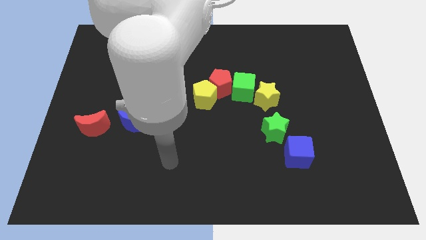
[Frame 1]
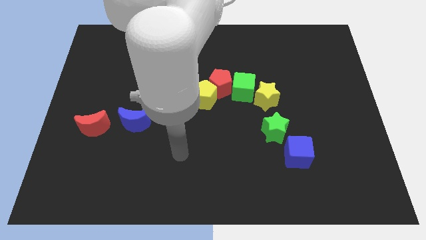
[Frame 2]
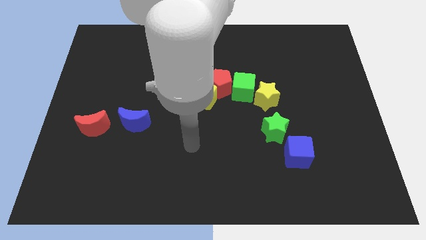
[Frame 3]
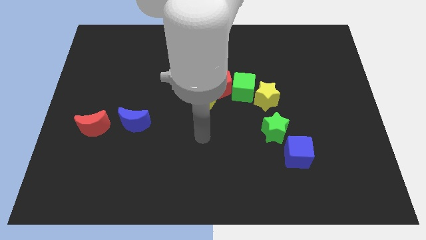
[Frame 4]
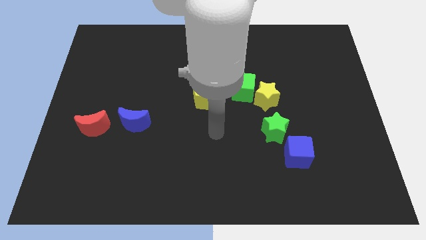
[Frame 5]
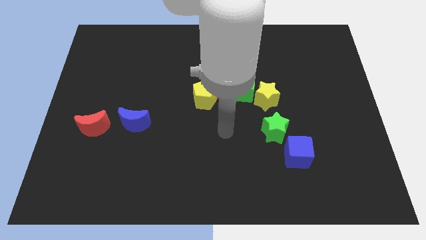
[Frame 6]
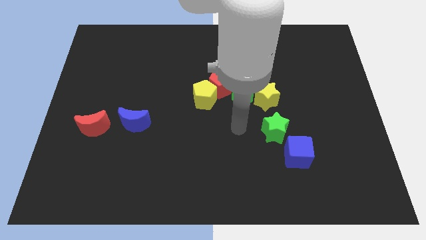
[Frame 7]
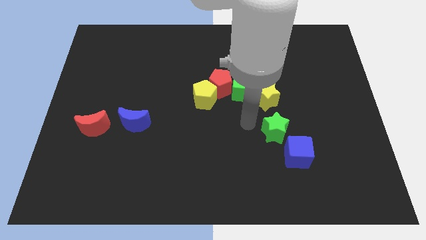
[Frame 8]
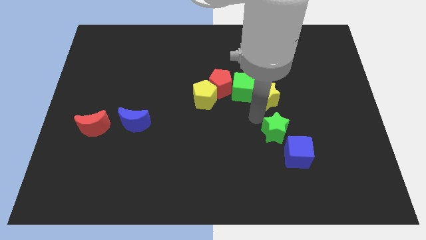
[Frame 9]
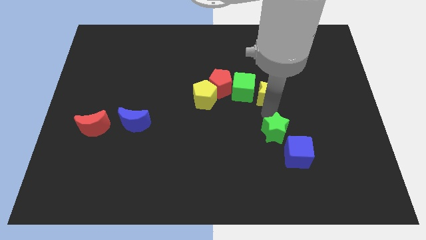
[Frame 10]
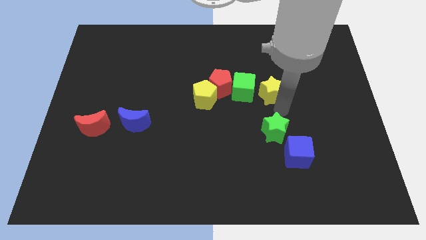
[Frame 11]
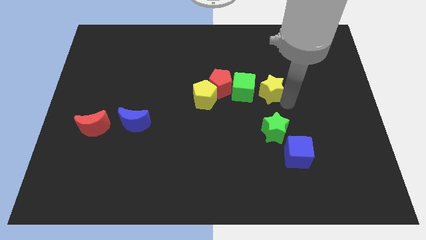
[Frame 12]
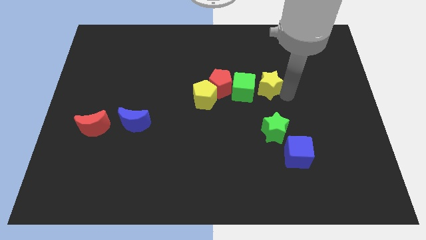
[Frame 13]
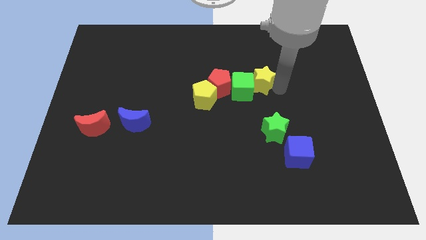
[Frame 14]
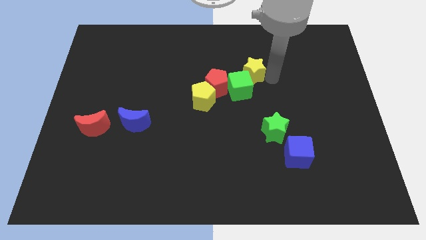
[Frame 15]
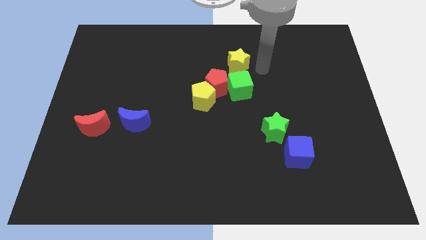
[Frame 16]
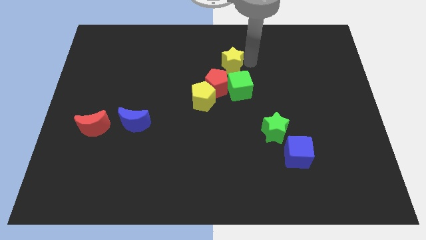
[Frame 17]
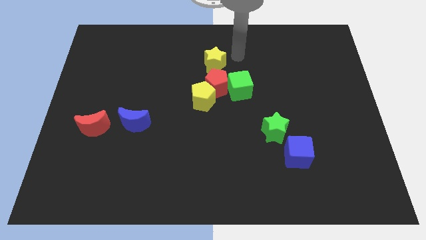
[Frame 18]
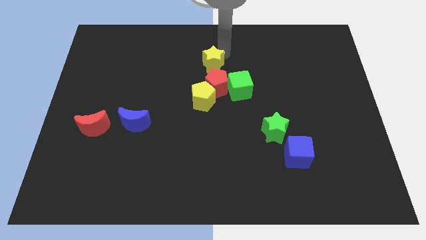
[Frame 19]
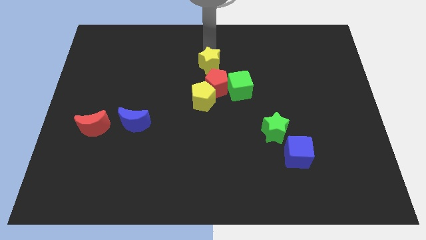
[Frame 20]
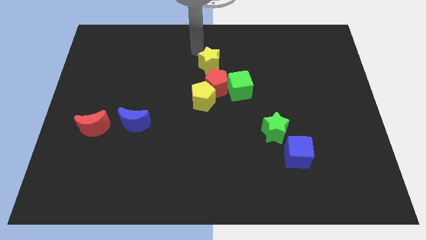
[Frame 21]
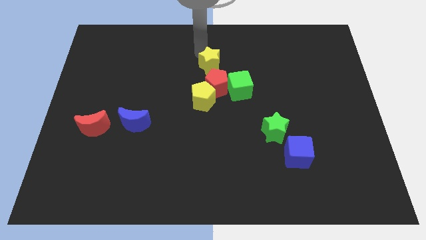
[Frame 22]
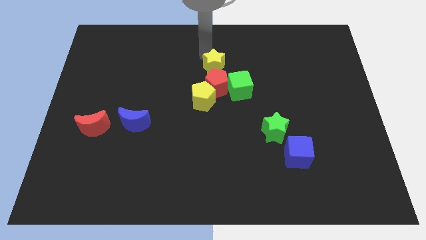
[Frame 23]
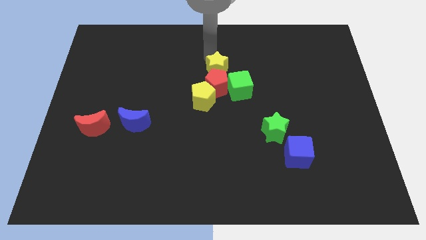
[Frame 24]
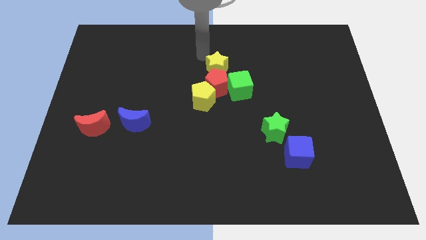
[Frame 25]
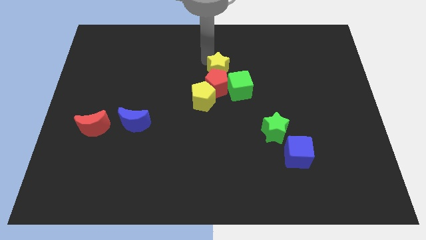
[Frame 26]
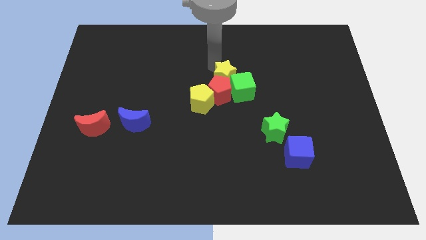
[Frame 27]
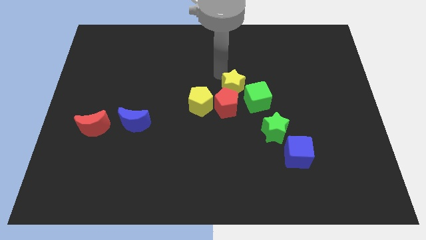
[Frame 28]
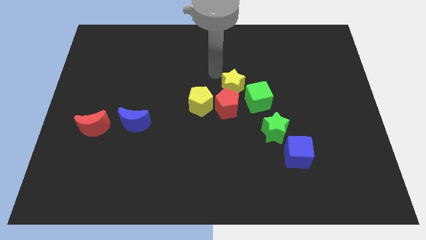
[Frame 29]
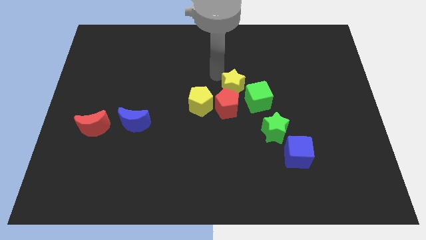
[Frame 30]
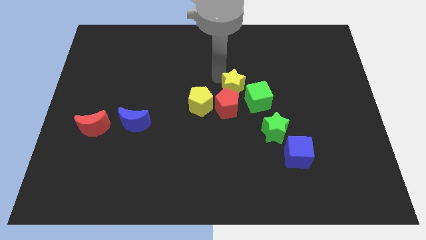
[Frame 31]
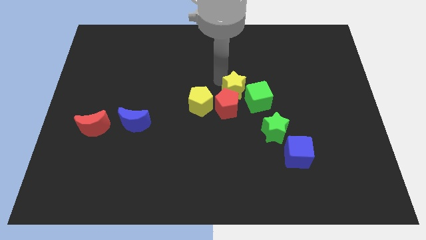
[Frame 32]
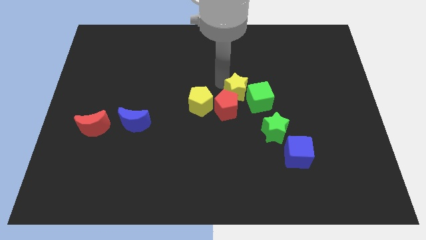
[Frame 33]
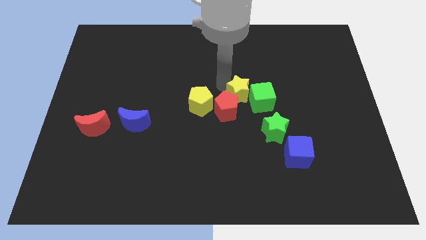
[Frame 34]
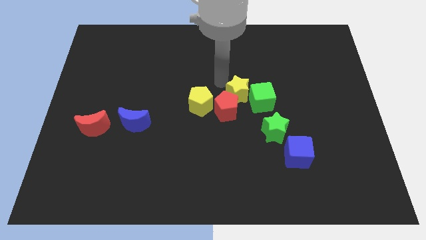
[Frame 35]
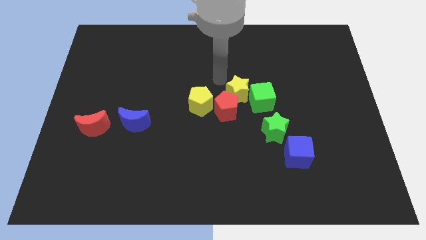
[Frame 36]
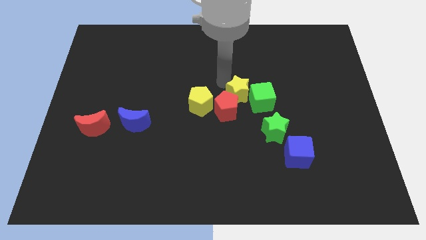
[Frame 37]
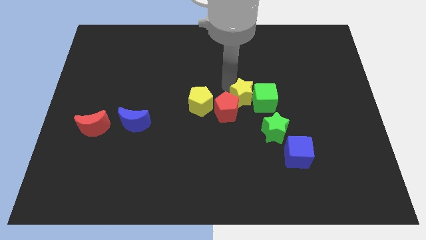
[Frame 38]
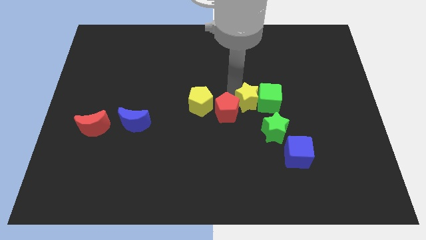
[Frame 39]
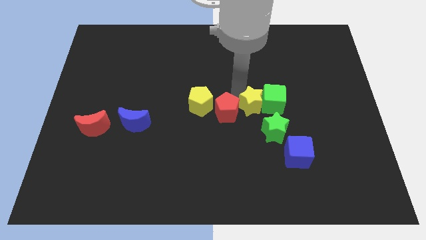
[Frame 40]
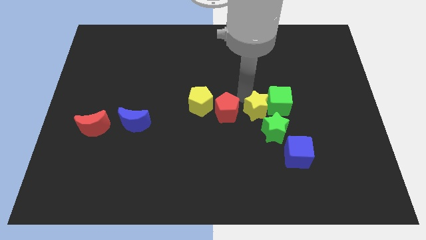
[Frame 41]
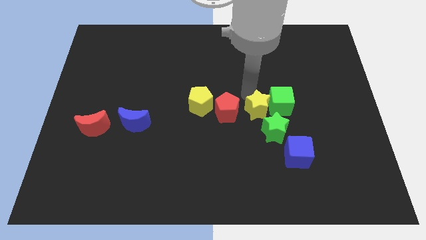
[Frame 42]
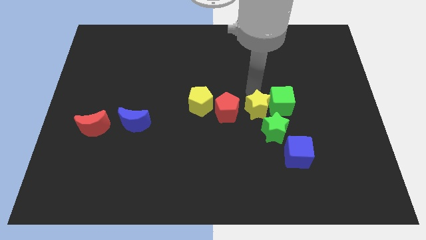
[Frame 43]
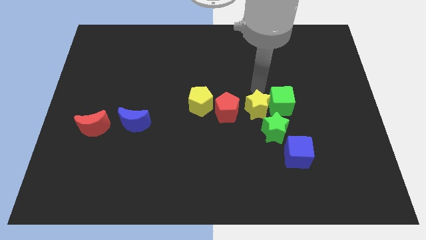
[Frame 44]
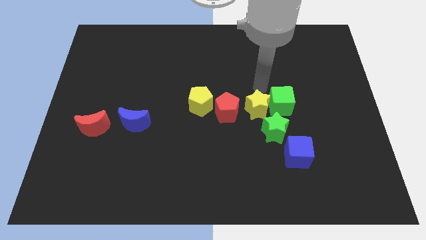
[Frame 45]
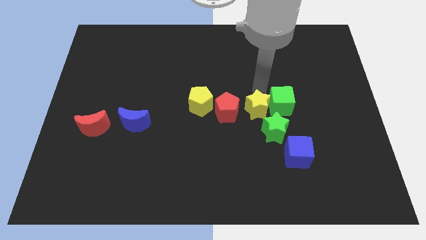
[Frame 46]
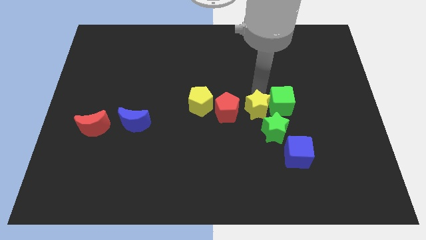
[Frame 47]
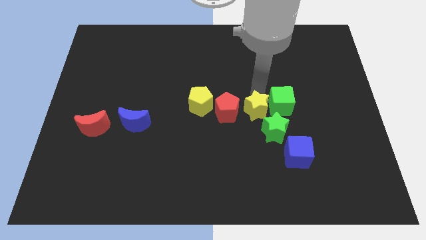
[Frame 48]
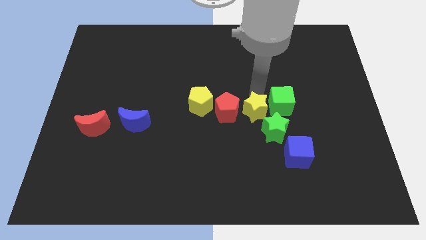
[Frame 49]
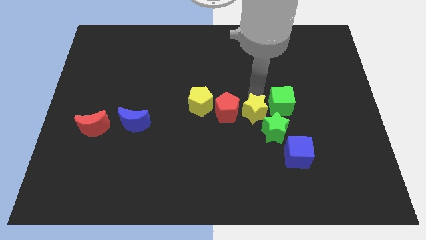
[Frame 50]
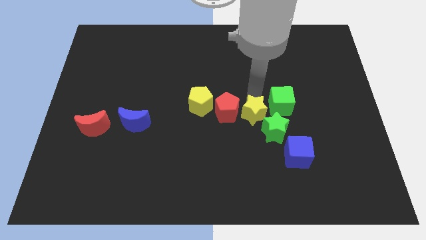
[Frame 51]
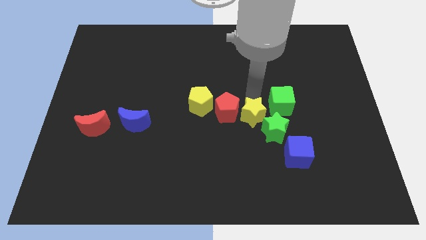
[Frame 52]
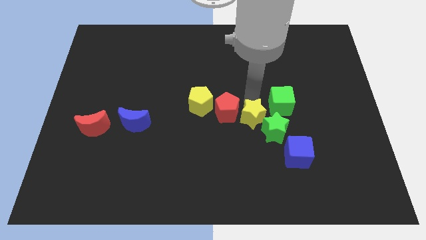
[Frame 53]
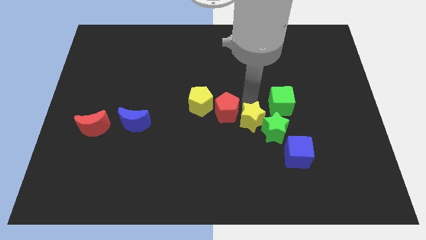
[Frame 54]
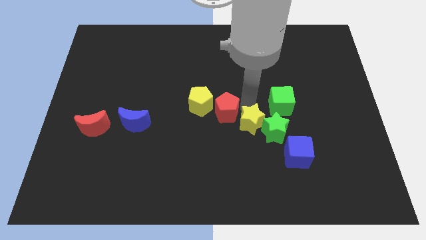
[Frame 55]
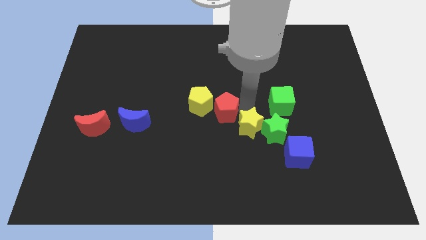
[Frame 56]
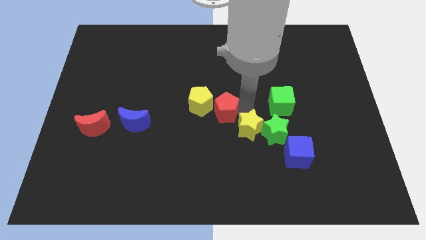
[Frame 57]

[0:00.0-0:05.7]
push the yellow star diagonally down and to the left of the green star
